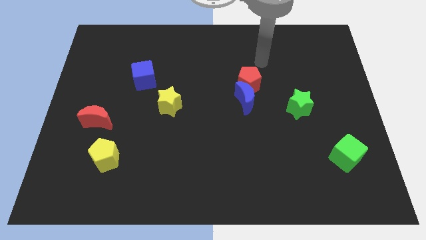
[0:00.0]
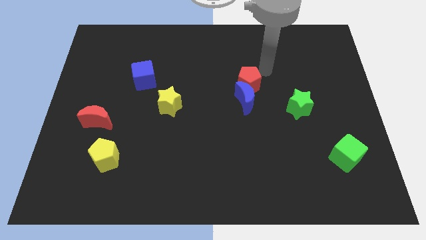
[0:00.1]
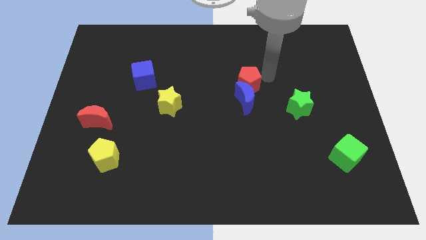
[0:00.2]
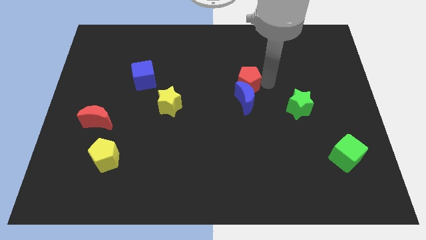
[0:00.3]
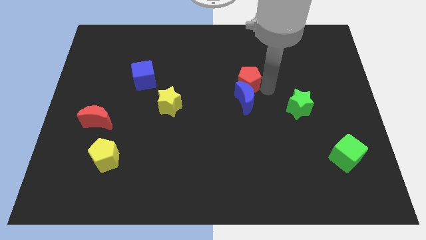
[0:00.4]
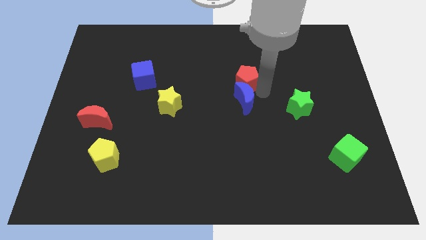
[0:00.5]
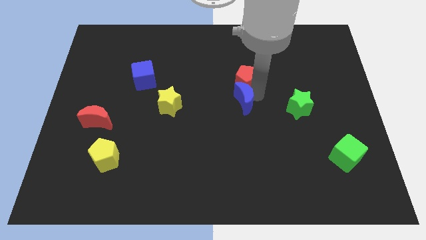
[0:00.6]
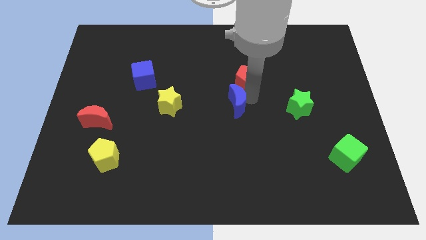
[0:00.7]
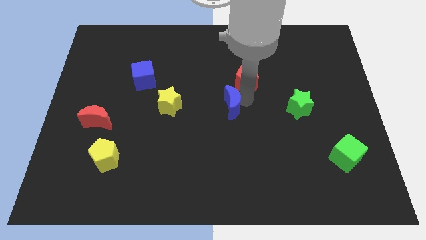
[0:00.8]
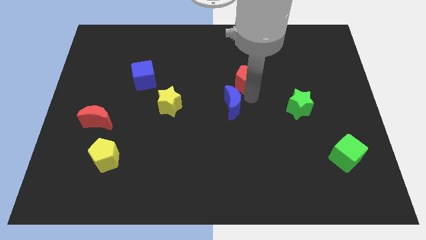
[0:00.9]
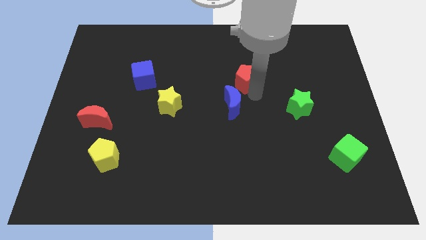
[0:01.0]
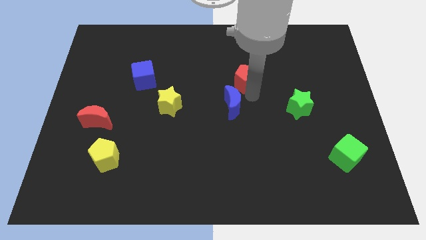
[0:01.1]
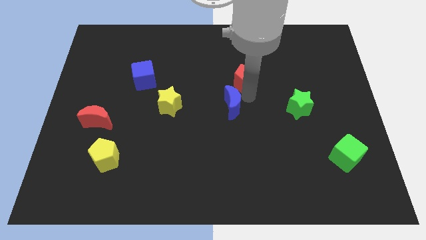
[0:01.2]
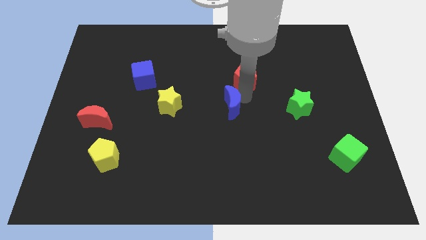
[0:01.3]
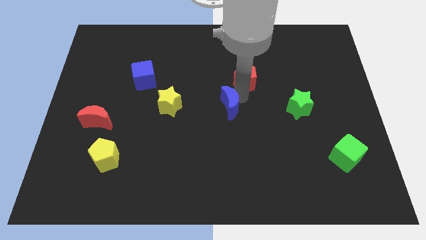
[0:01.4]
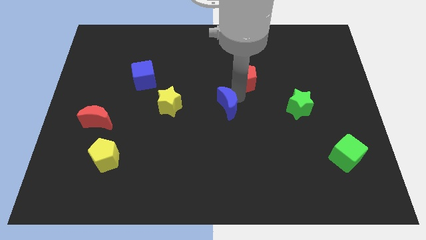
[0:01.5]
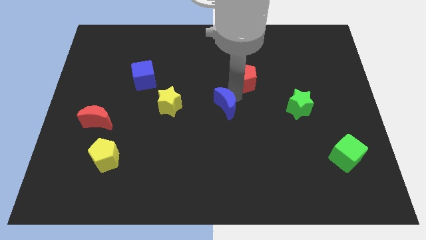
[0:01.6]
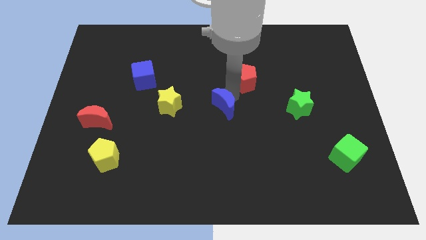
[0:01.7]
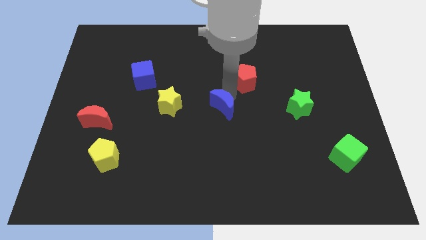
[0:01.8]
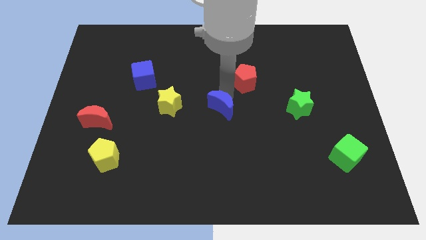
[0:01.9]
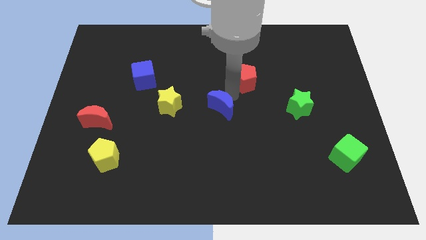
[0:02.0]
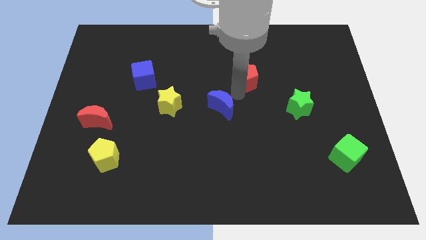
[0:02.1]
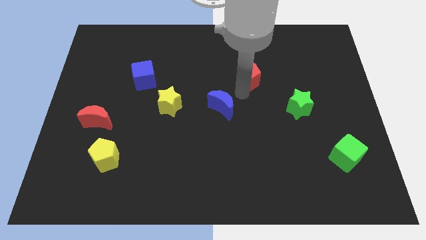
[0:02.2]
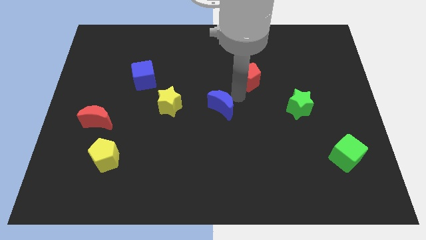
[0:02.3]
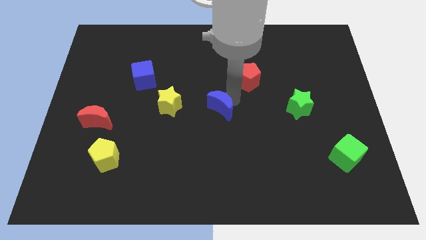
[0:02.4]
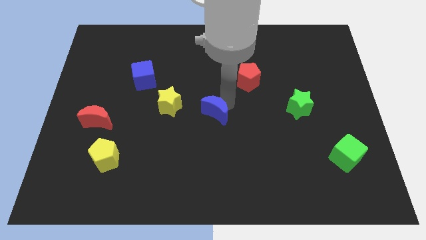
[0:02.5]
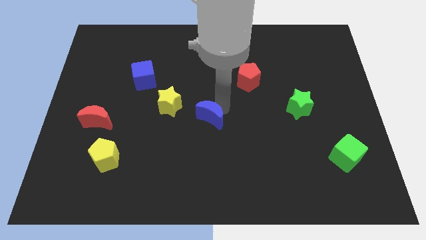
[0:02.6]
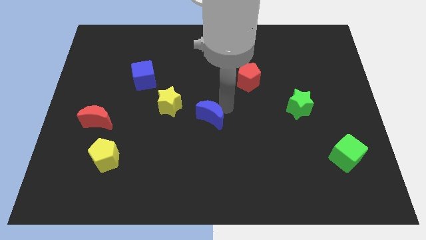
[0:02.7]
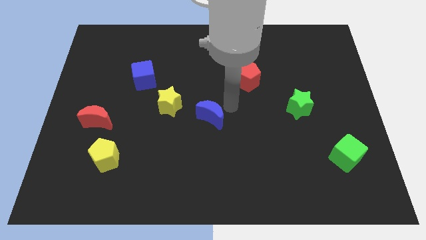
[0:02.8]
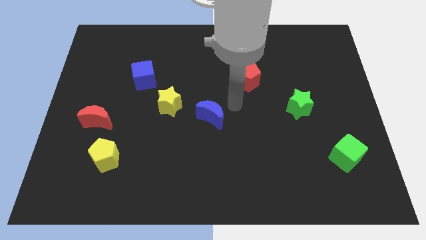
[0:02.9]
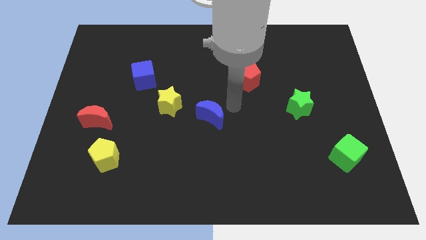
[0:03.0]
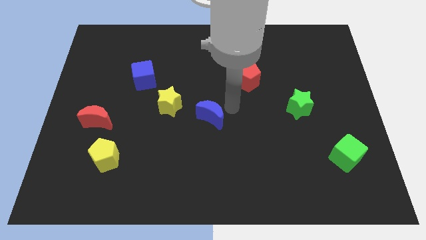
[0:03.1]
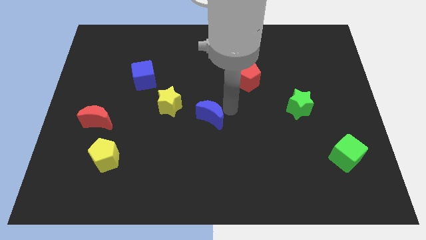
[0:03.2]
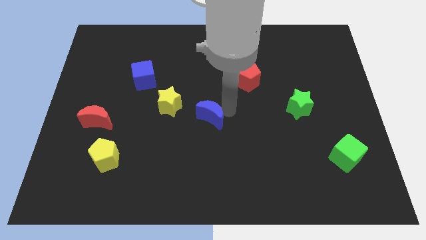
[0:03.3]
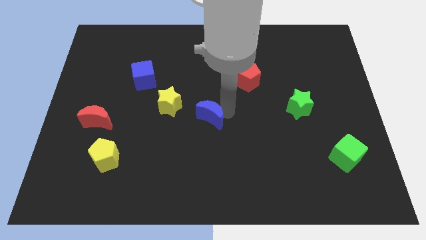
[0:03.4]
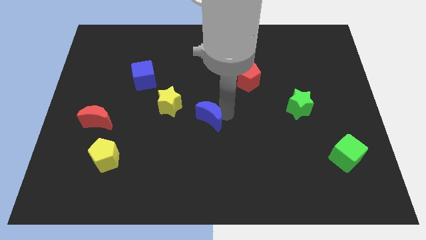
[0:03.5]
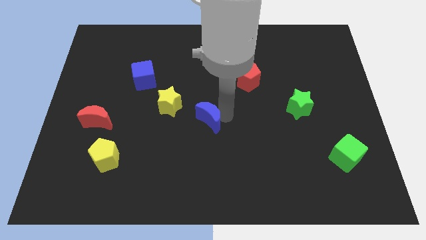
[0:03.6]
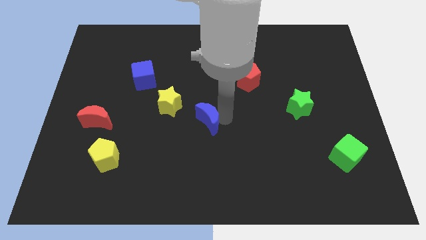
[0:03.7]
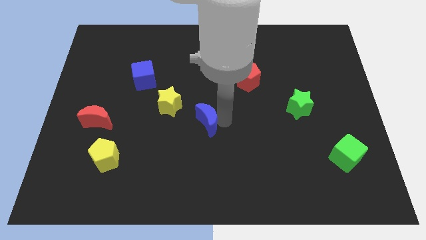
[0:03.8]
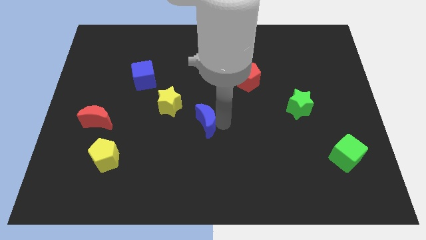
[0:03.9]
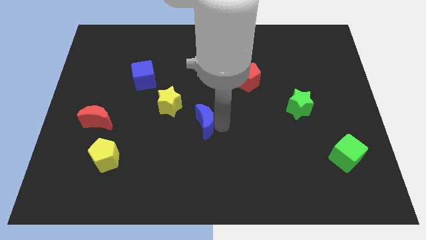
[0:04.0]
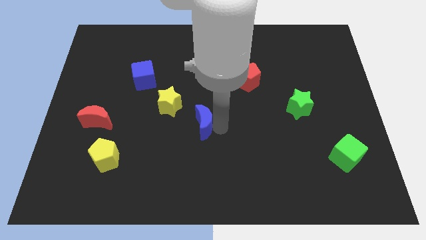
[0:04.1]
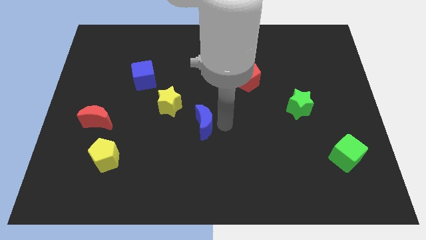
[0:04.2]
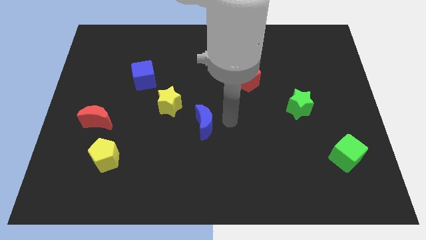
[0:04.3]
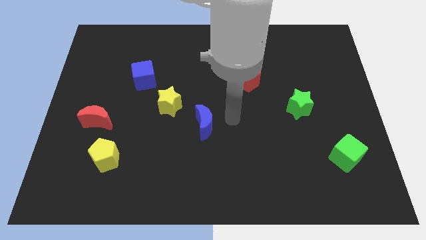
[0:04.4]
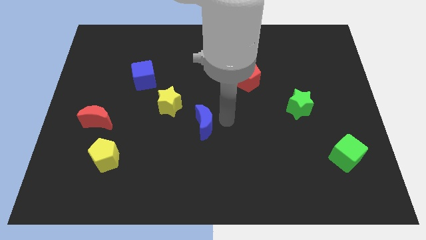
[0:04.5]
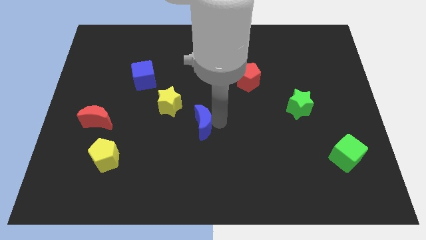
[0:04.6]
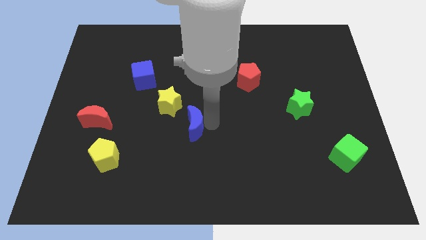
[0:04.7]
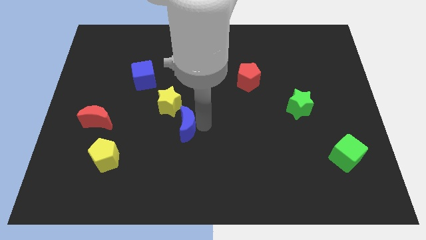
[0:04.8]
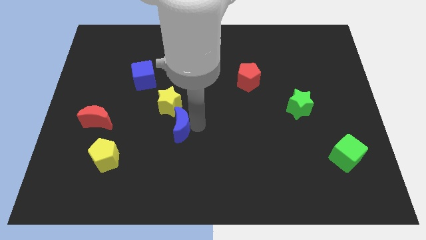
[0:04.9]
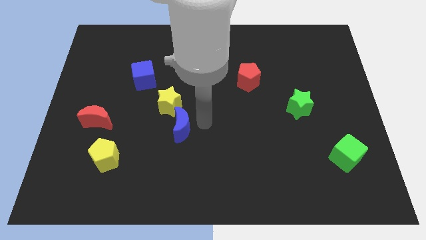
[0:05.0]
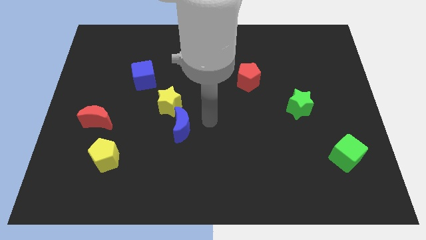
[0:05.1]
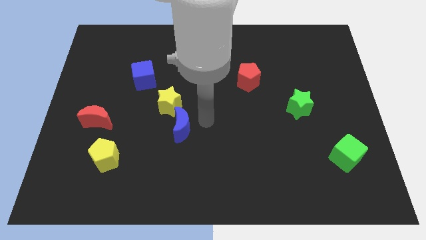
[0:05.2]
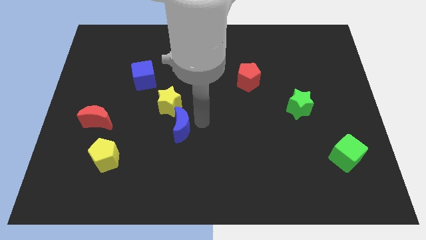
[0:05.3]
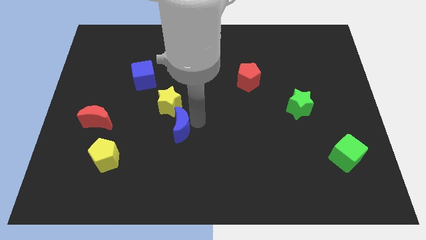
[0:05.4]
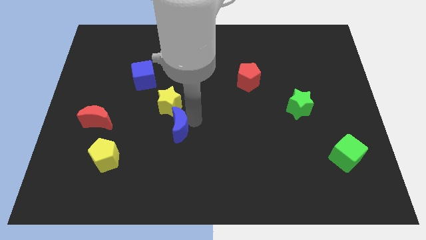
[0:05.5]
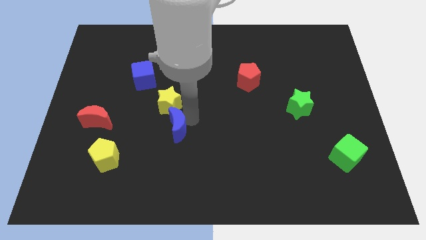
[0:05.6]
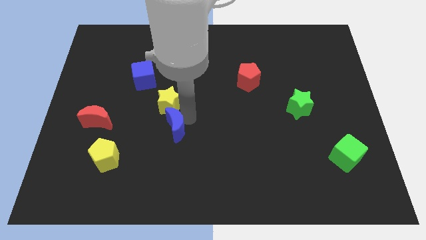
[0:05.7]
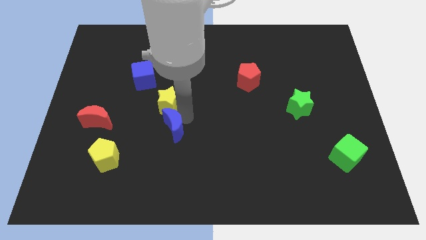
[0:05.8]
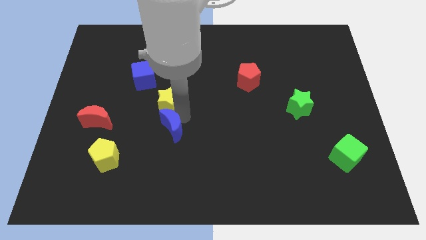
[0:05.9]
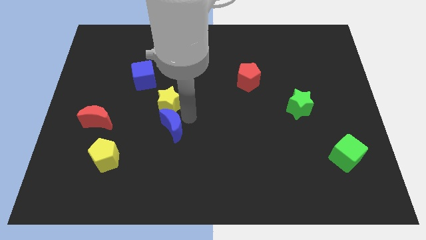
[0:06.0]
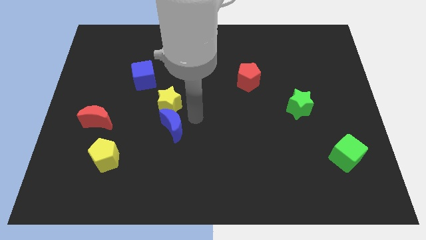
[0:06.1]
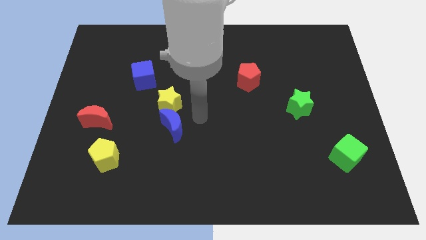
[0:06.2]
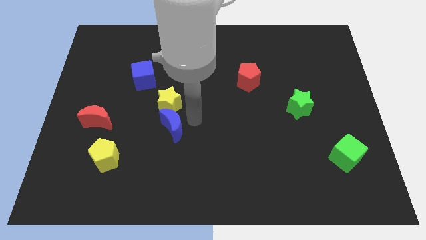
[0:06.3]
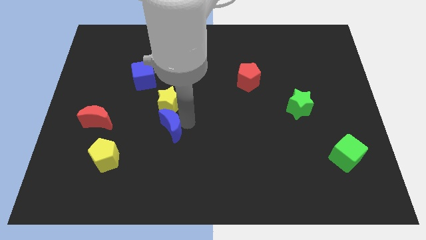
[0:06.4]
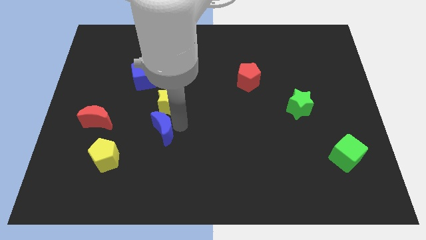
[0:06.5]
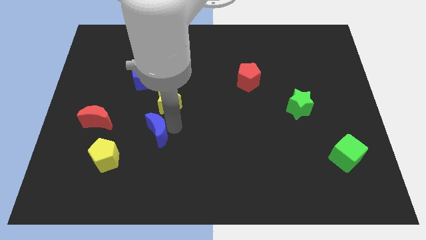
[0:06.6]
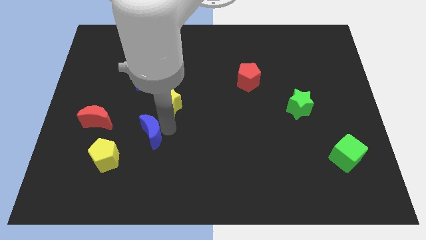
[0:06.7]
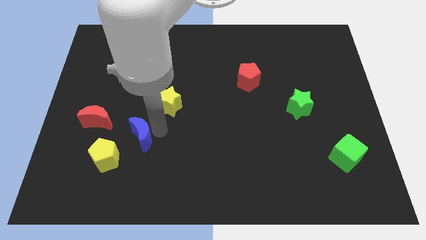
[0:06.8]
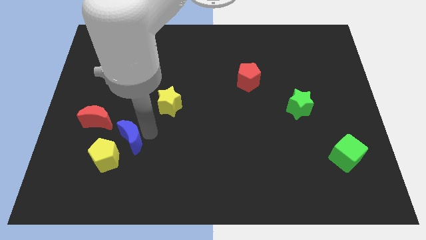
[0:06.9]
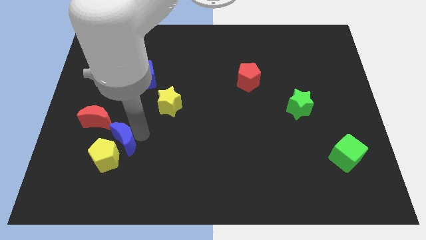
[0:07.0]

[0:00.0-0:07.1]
move the blue moon towards the yellow pentagon
